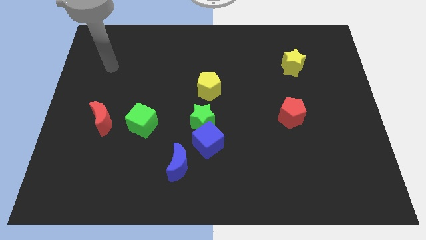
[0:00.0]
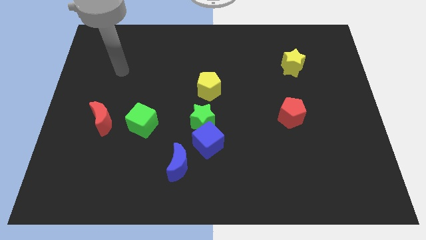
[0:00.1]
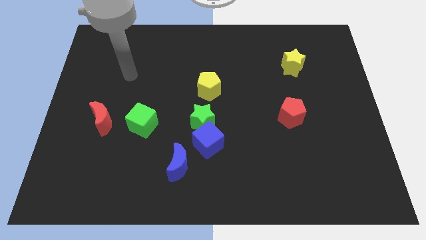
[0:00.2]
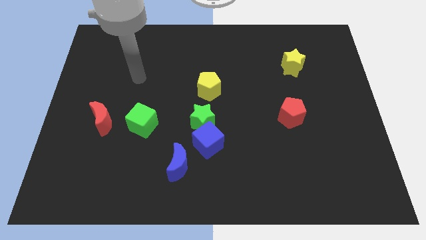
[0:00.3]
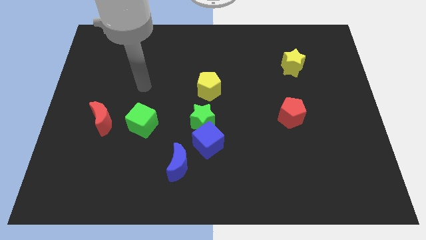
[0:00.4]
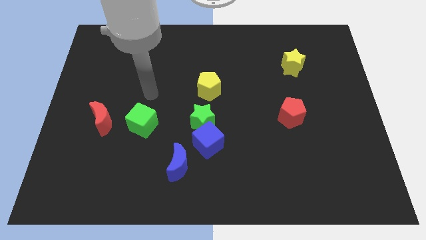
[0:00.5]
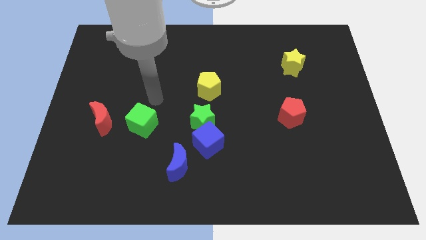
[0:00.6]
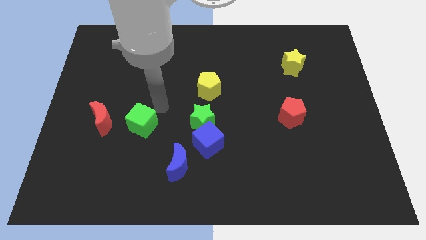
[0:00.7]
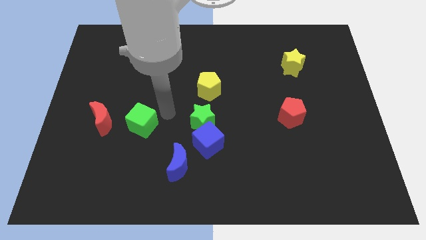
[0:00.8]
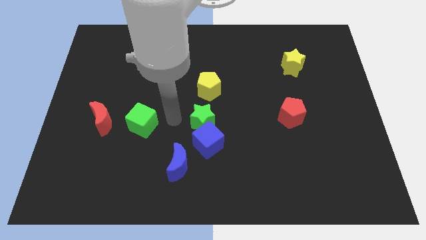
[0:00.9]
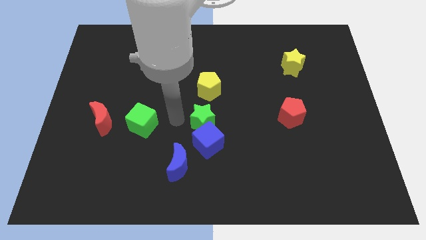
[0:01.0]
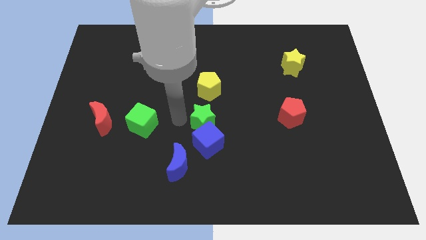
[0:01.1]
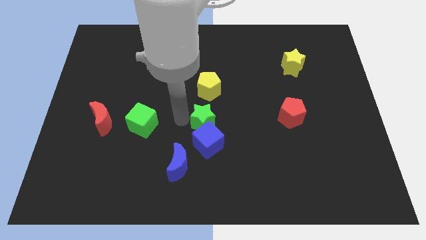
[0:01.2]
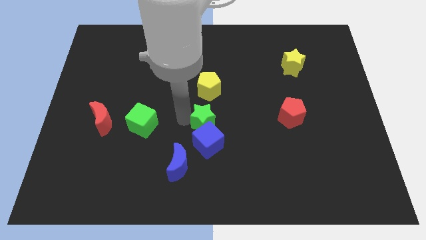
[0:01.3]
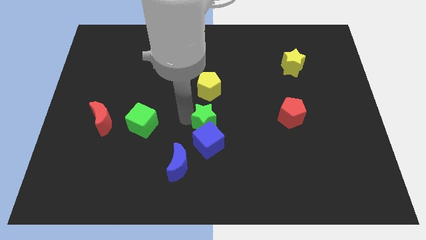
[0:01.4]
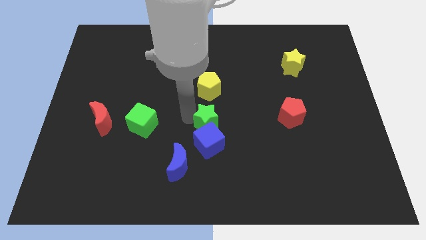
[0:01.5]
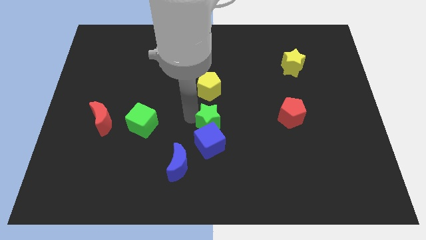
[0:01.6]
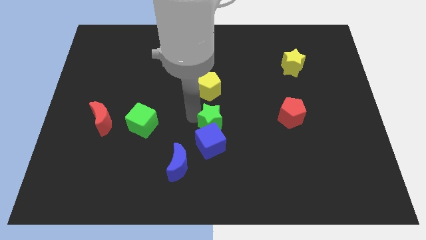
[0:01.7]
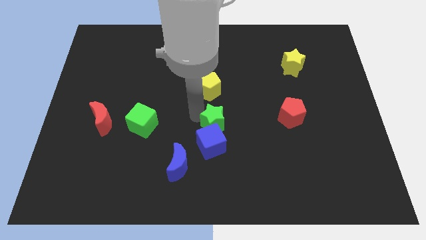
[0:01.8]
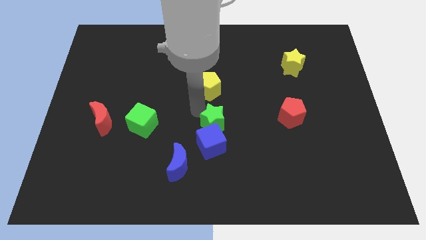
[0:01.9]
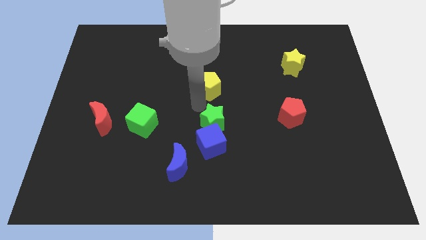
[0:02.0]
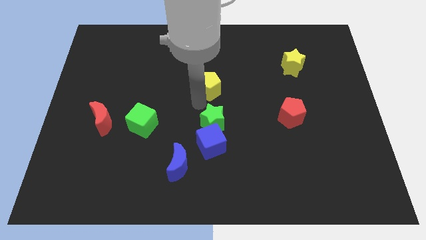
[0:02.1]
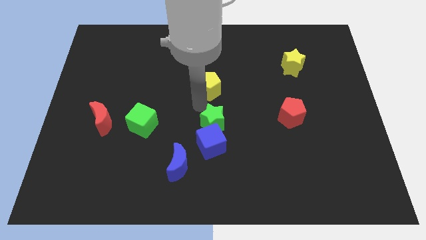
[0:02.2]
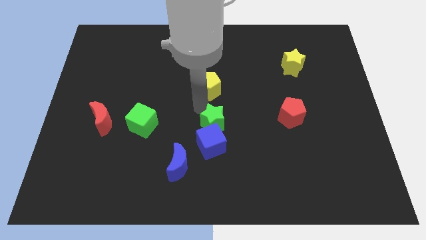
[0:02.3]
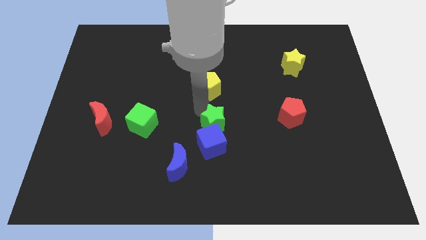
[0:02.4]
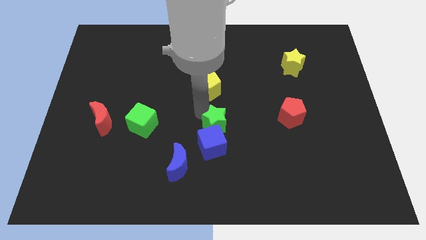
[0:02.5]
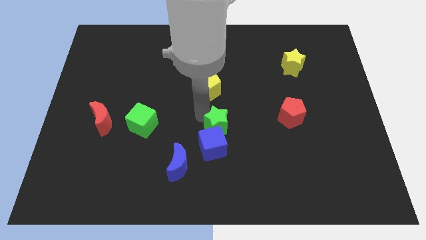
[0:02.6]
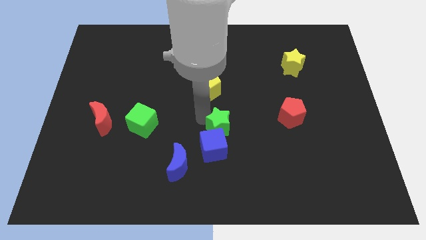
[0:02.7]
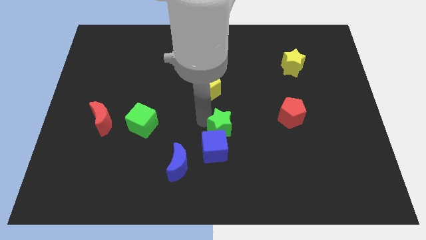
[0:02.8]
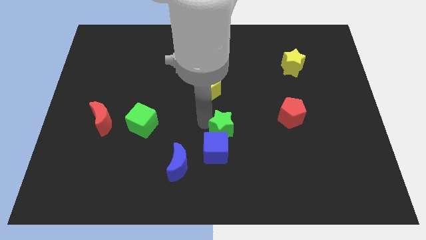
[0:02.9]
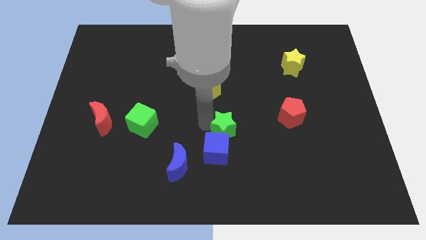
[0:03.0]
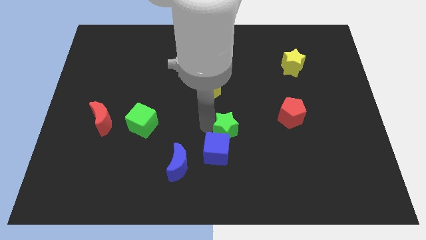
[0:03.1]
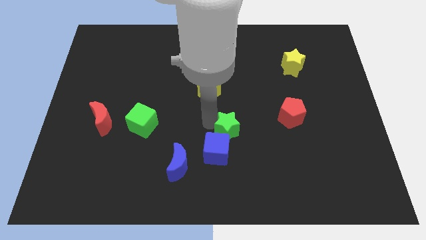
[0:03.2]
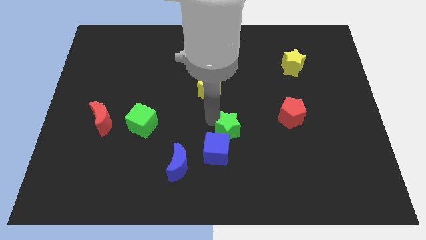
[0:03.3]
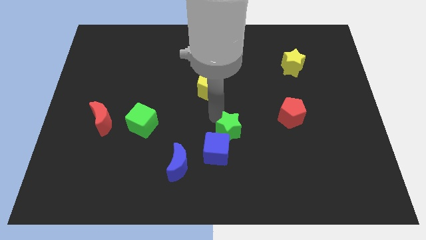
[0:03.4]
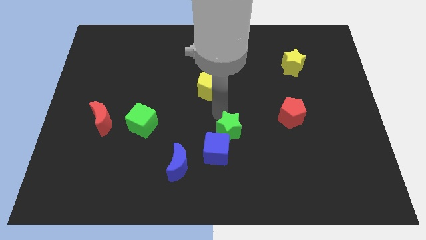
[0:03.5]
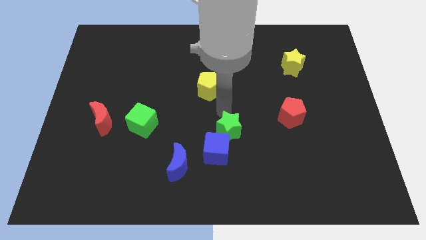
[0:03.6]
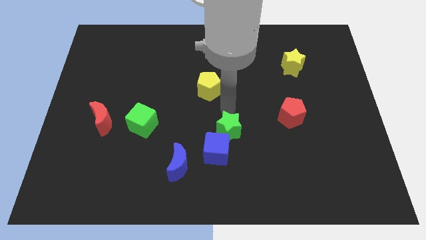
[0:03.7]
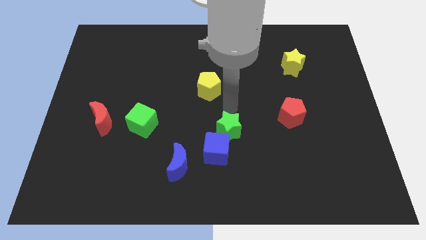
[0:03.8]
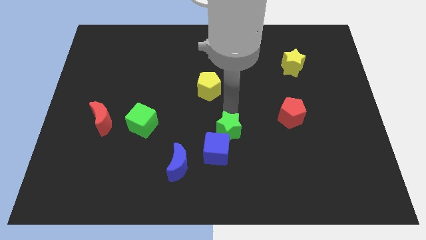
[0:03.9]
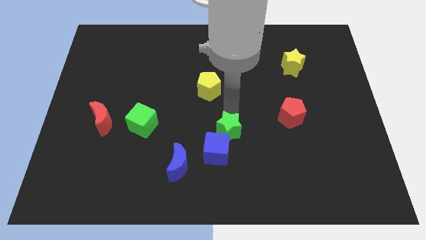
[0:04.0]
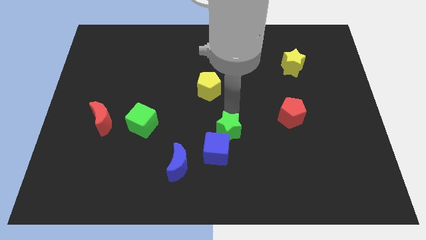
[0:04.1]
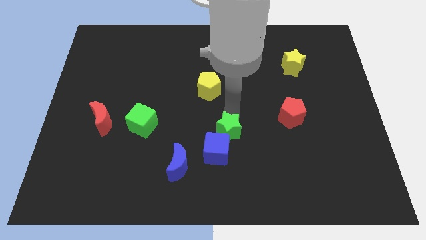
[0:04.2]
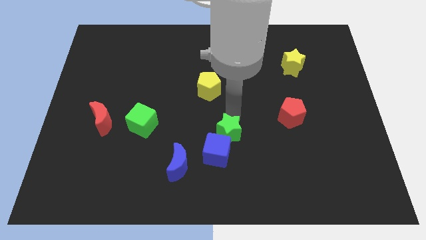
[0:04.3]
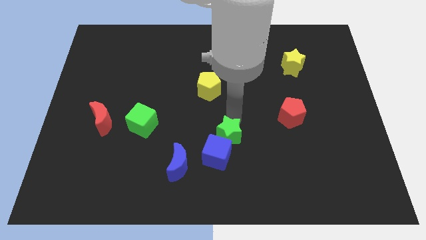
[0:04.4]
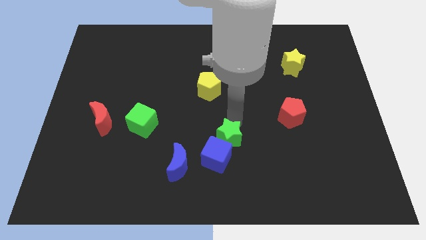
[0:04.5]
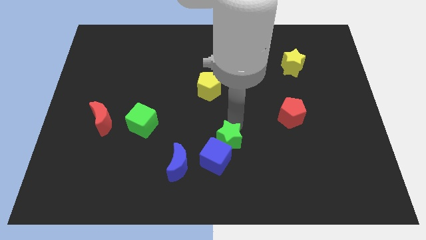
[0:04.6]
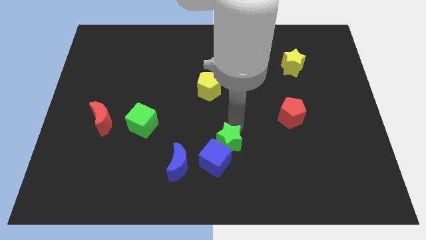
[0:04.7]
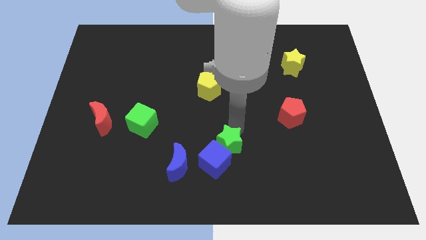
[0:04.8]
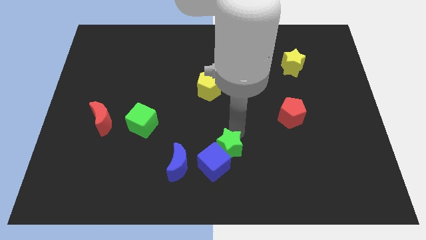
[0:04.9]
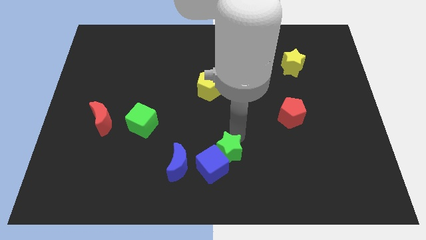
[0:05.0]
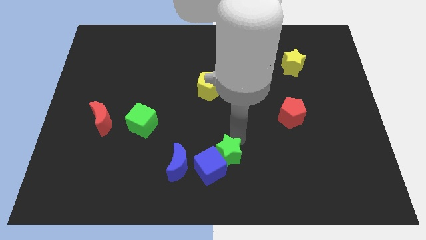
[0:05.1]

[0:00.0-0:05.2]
push the green star to the bottom side
